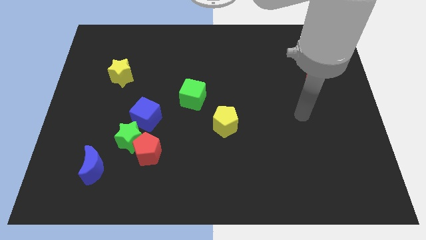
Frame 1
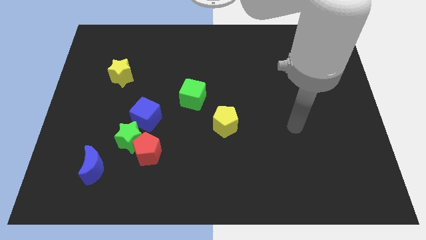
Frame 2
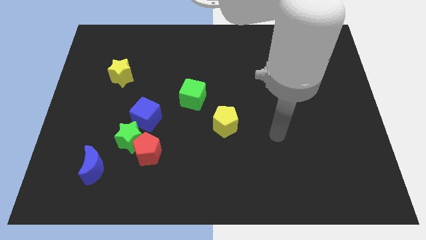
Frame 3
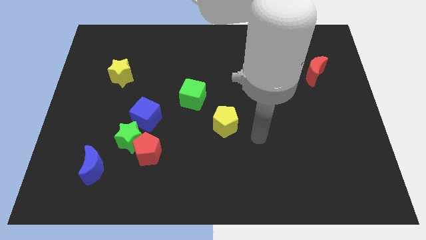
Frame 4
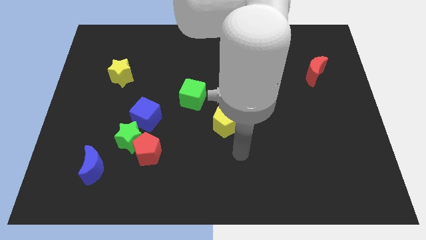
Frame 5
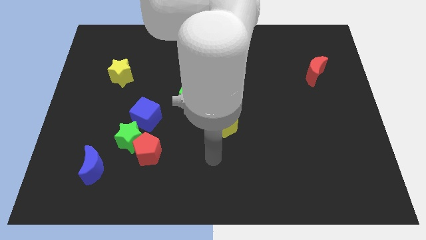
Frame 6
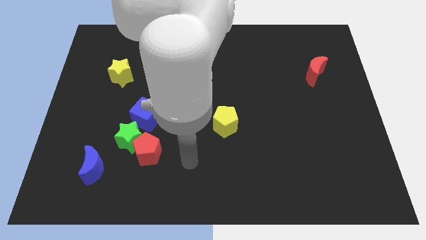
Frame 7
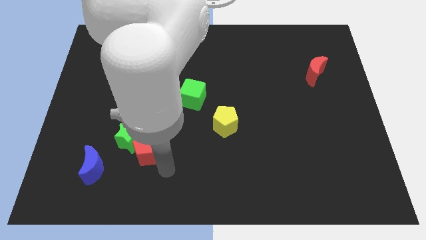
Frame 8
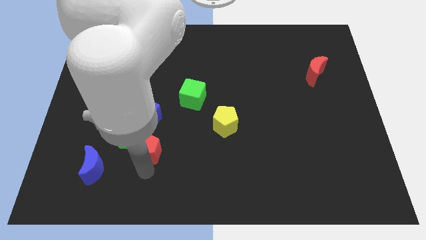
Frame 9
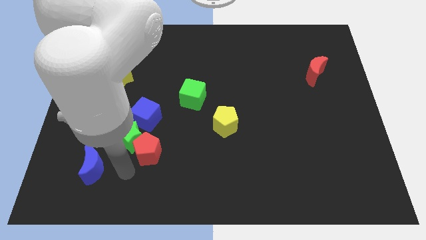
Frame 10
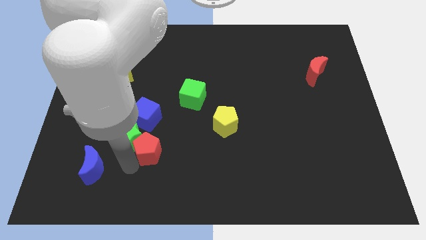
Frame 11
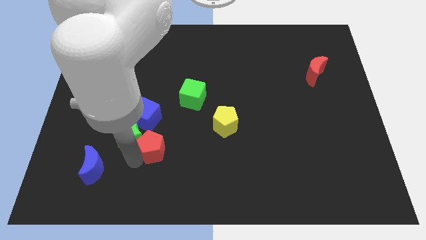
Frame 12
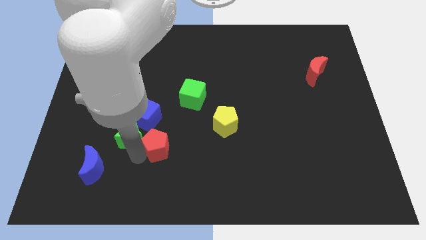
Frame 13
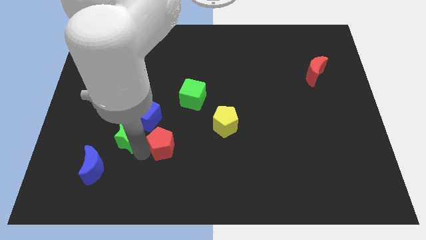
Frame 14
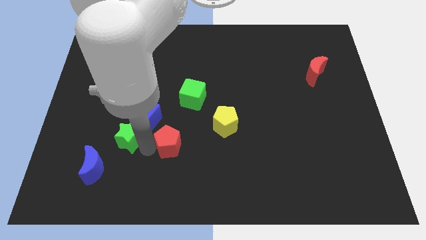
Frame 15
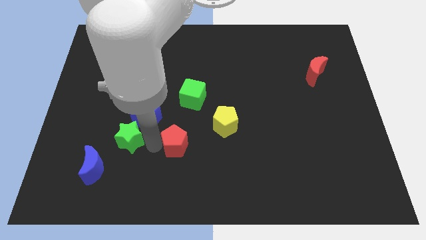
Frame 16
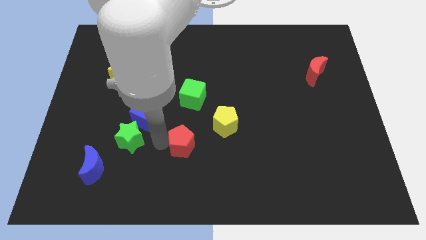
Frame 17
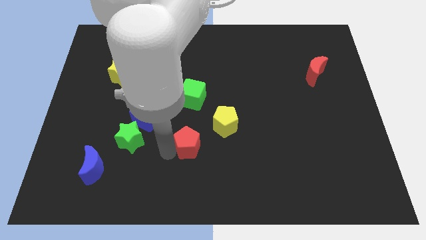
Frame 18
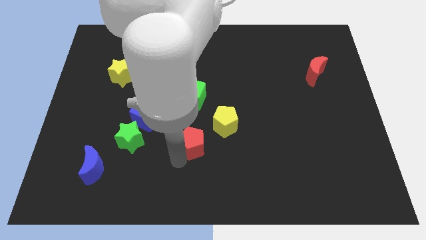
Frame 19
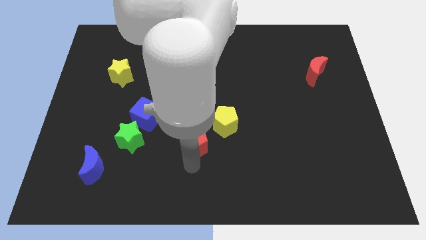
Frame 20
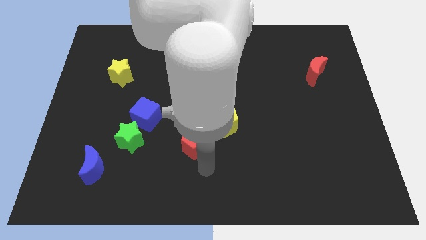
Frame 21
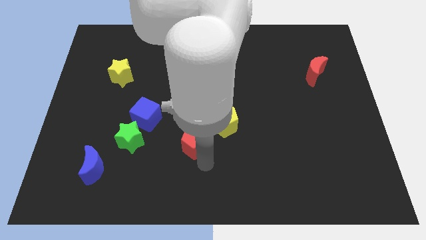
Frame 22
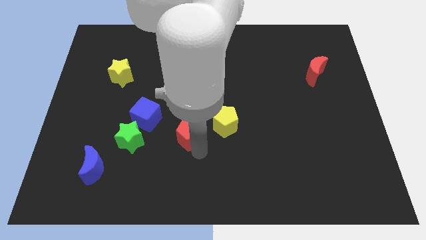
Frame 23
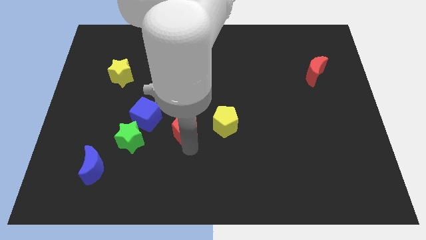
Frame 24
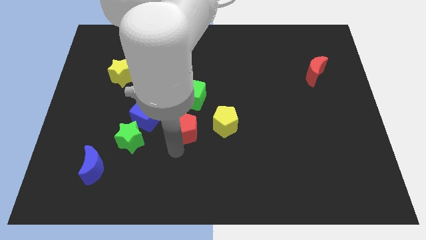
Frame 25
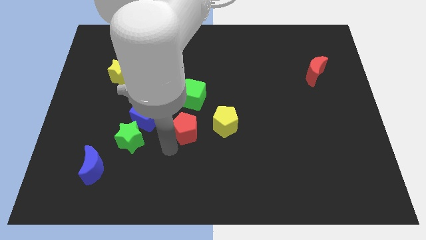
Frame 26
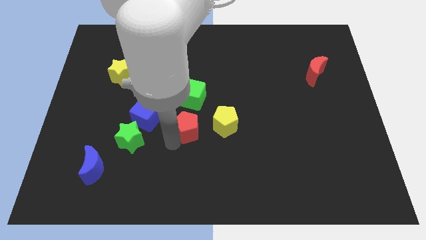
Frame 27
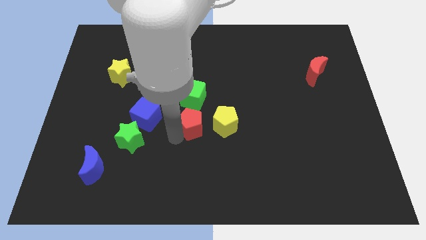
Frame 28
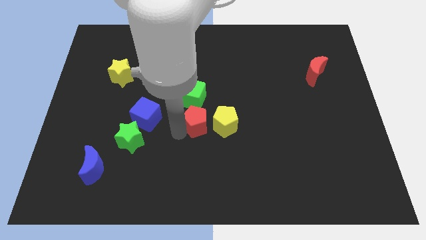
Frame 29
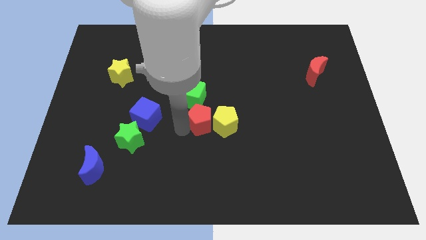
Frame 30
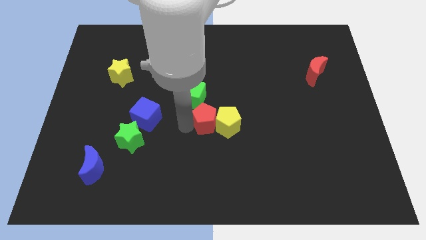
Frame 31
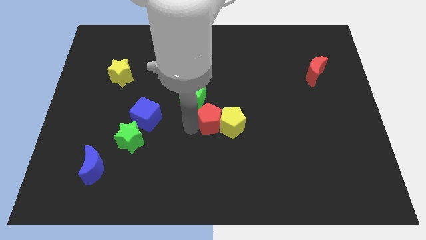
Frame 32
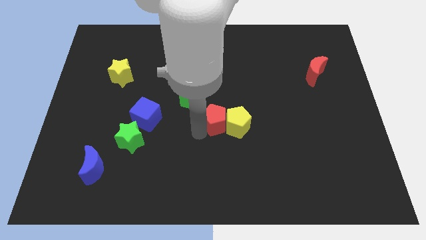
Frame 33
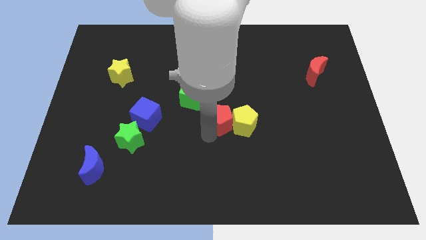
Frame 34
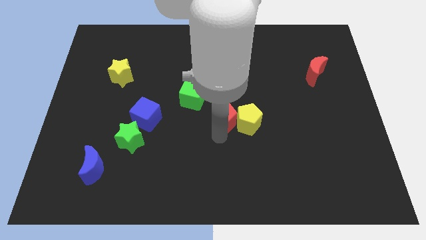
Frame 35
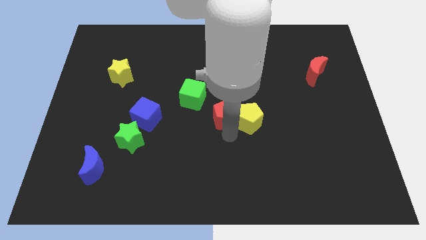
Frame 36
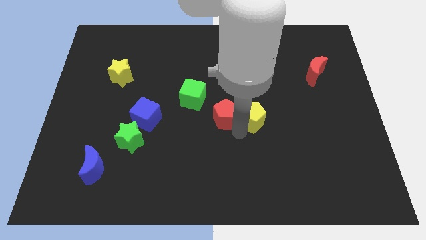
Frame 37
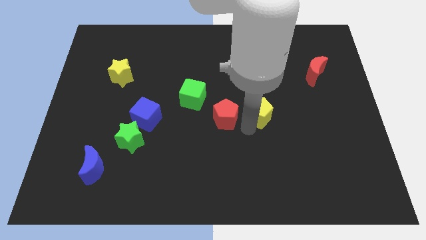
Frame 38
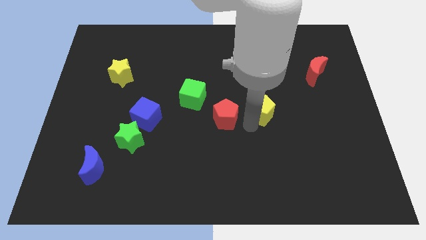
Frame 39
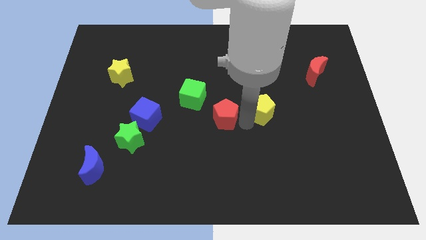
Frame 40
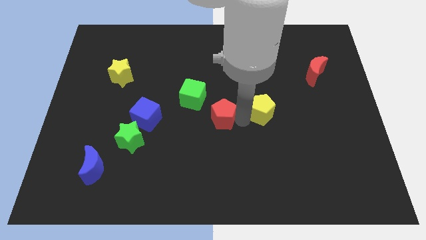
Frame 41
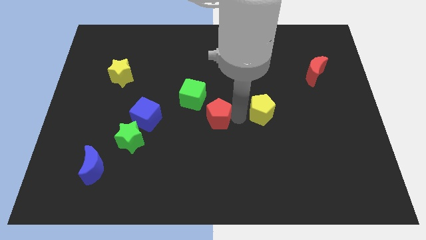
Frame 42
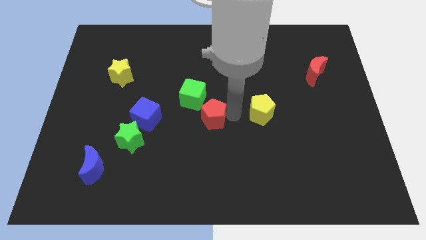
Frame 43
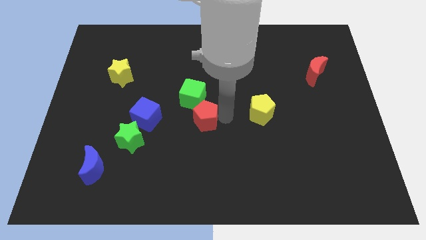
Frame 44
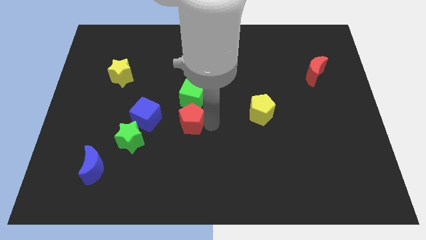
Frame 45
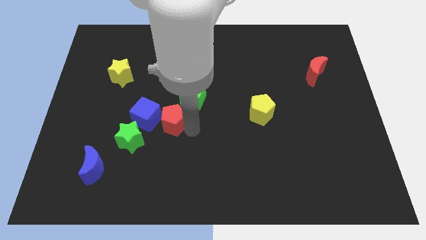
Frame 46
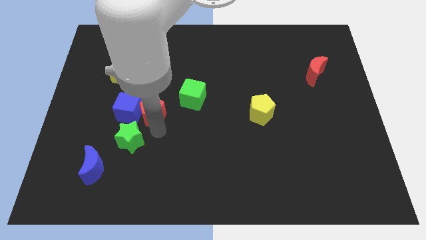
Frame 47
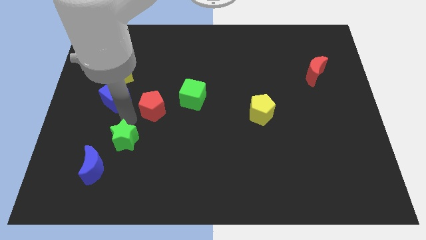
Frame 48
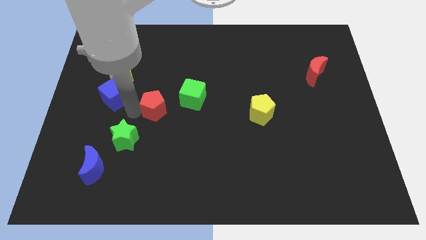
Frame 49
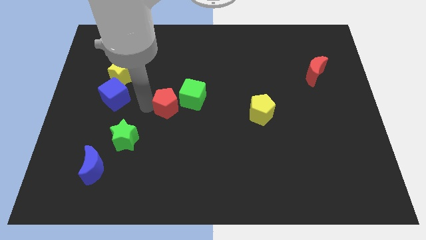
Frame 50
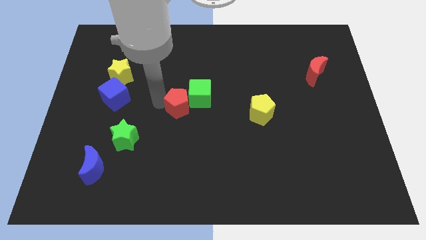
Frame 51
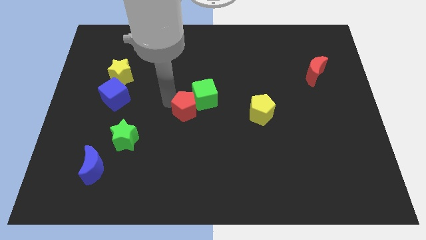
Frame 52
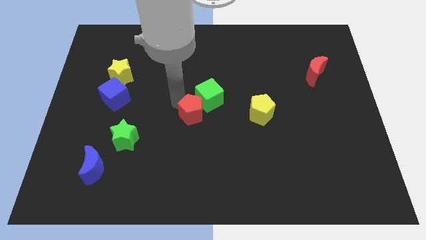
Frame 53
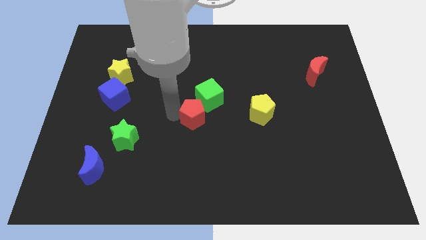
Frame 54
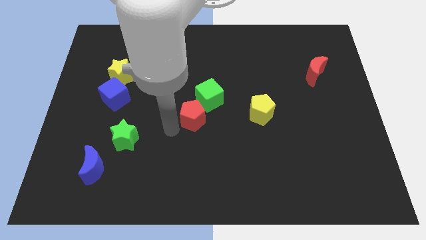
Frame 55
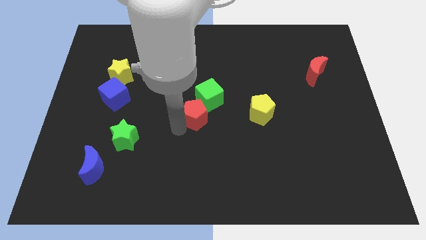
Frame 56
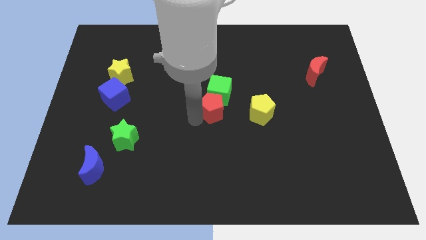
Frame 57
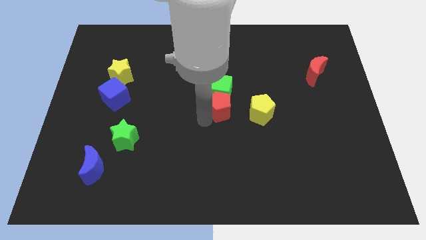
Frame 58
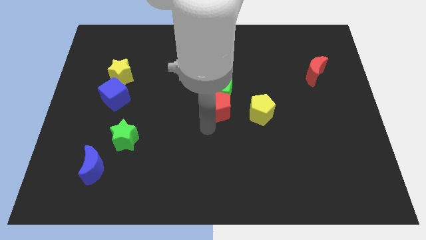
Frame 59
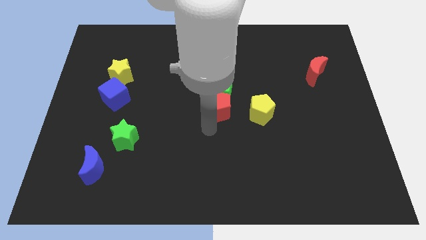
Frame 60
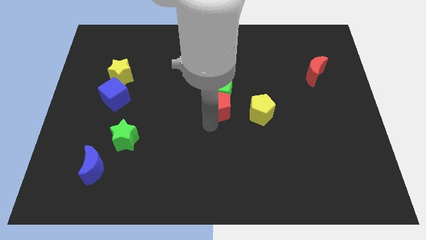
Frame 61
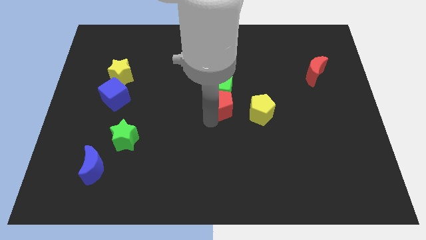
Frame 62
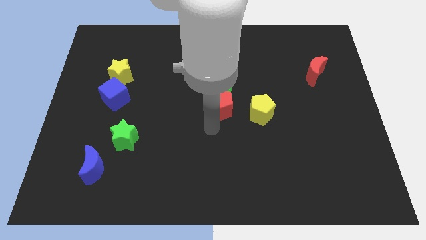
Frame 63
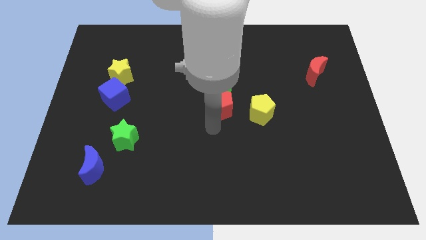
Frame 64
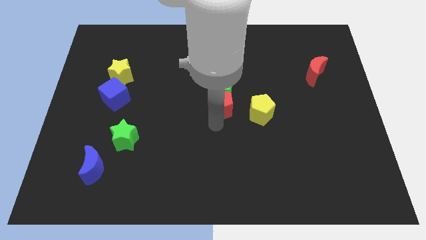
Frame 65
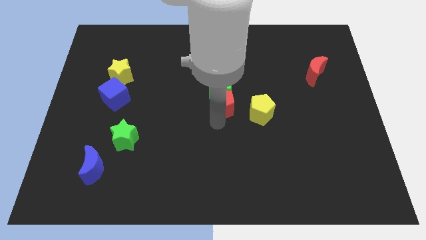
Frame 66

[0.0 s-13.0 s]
push the red pentagon upwards and then right

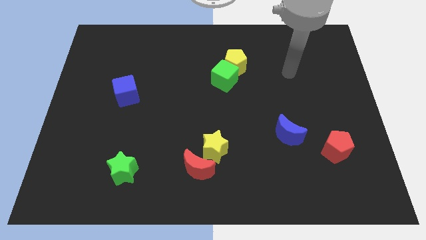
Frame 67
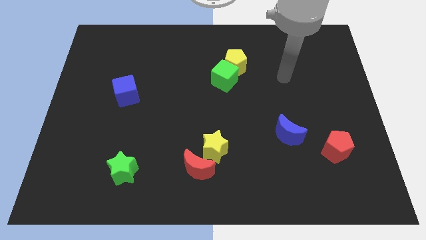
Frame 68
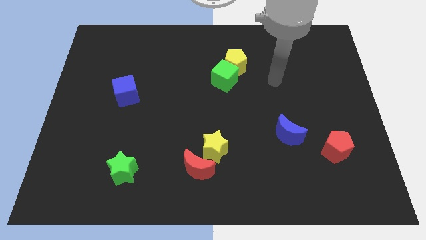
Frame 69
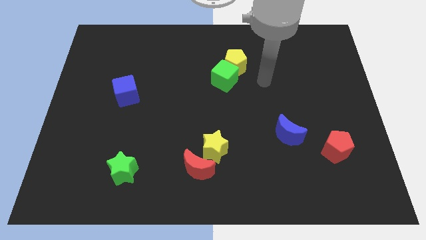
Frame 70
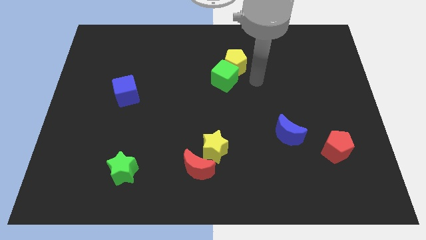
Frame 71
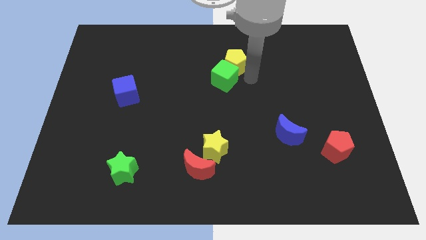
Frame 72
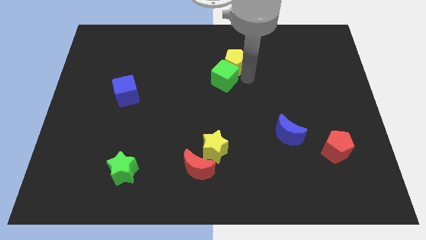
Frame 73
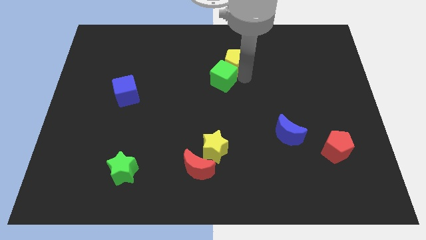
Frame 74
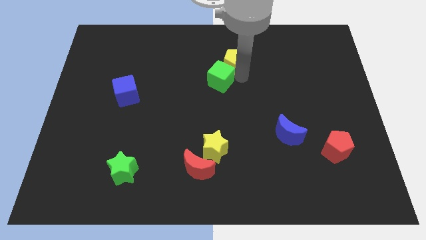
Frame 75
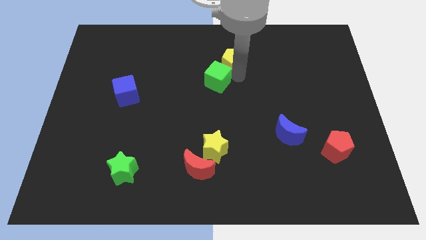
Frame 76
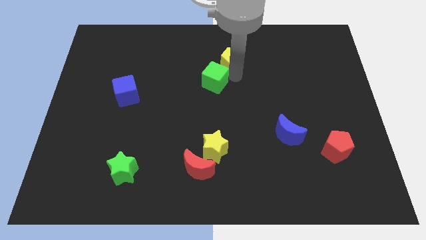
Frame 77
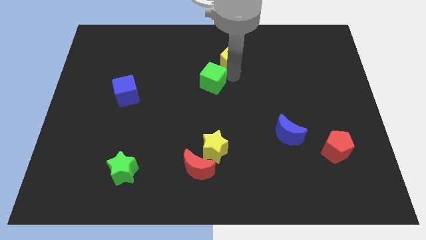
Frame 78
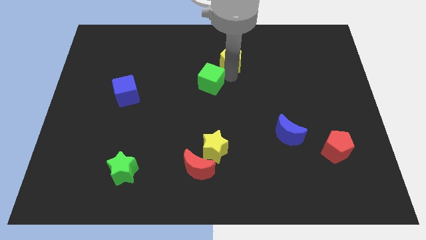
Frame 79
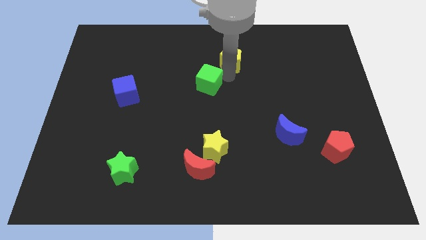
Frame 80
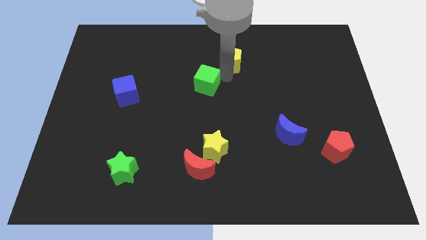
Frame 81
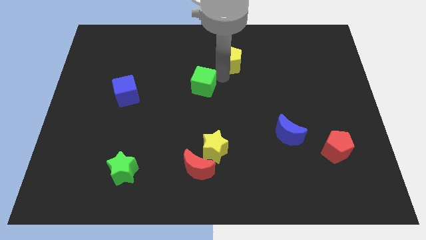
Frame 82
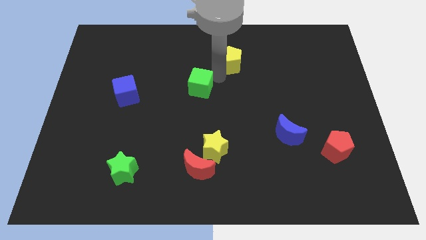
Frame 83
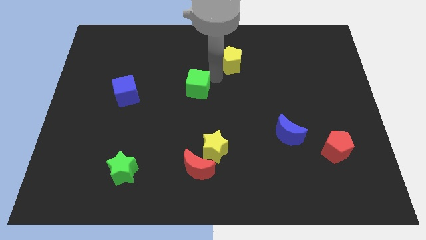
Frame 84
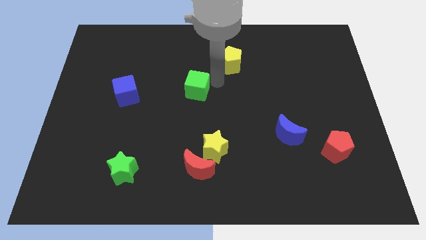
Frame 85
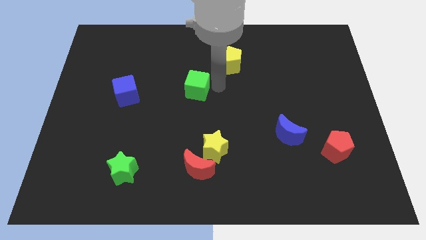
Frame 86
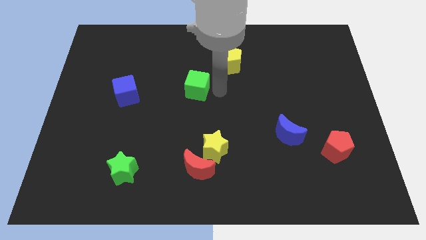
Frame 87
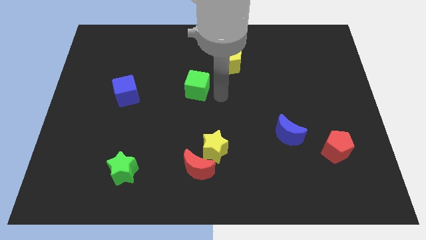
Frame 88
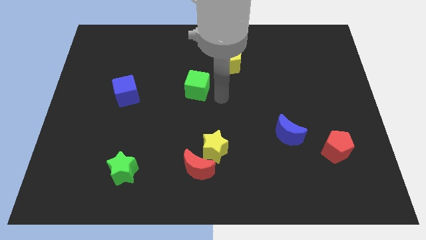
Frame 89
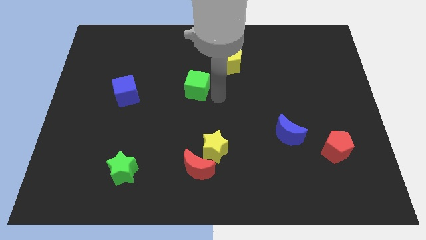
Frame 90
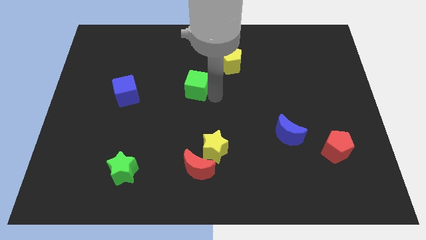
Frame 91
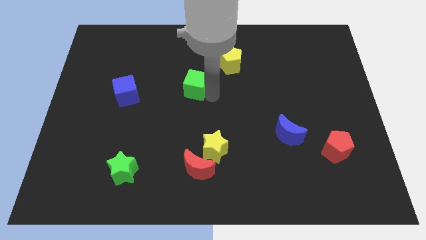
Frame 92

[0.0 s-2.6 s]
slightly slide the green cube to the left
